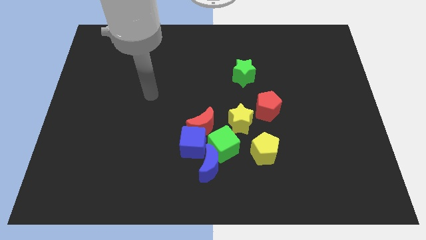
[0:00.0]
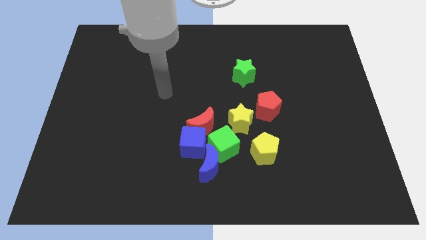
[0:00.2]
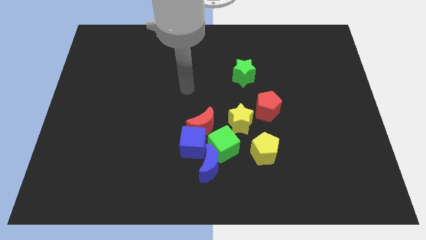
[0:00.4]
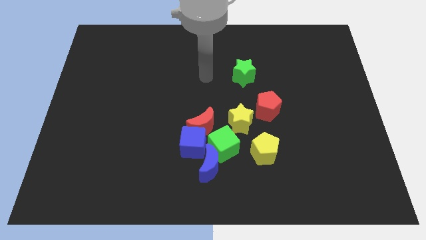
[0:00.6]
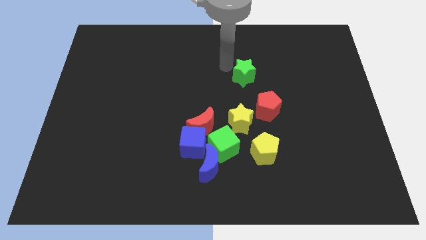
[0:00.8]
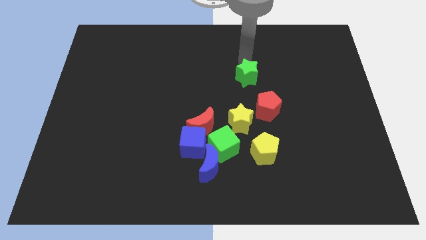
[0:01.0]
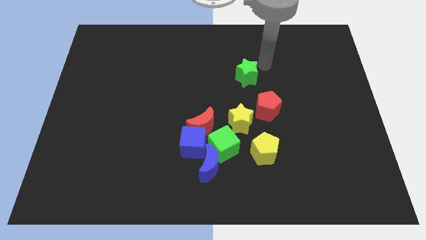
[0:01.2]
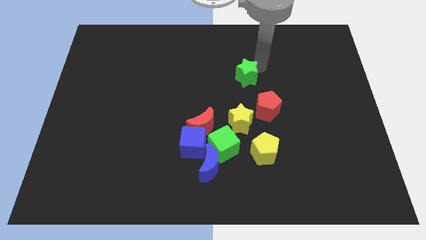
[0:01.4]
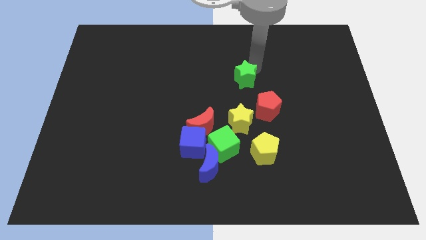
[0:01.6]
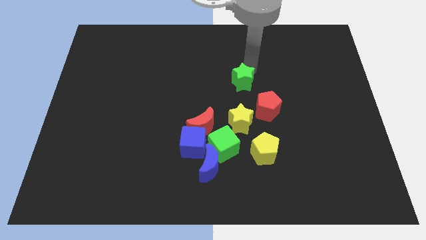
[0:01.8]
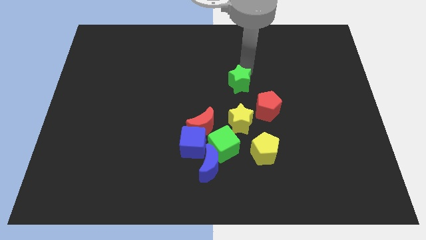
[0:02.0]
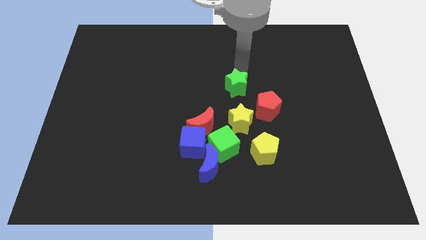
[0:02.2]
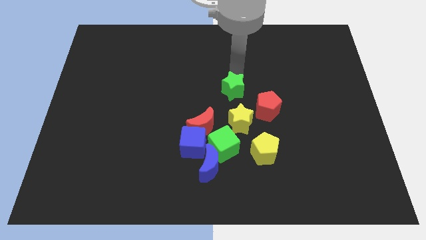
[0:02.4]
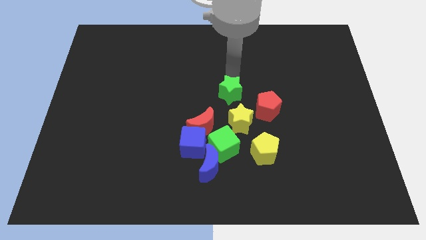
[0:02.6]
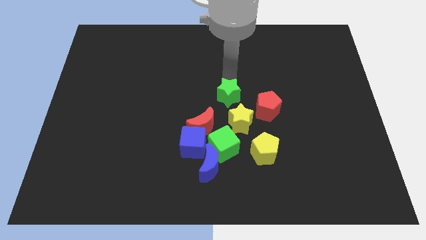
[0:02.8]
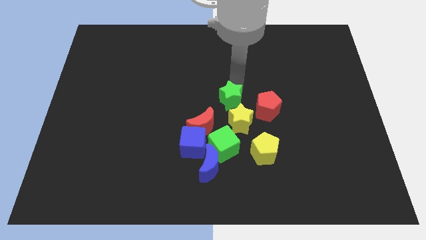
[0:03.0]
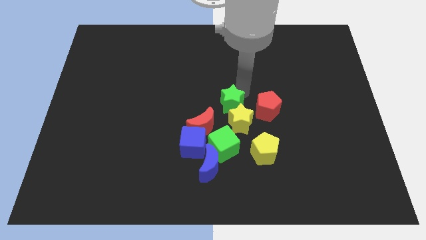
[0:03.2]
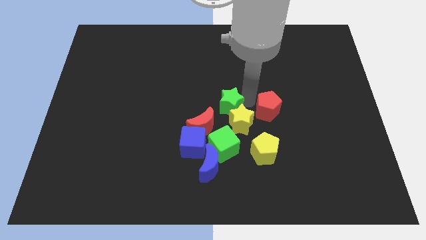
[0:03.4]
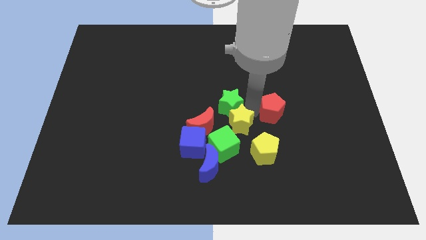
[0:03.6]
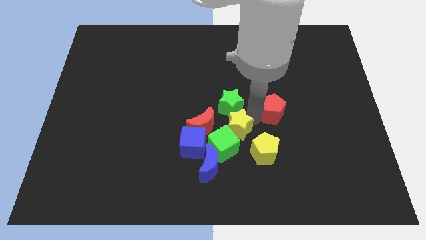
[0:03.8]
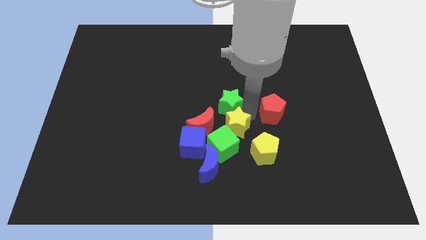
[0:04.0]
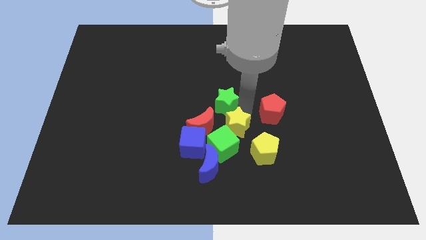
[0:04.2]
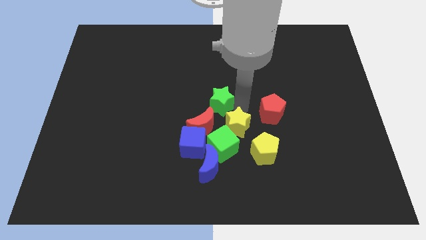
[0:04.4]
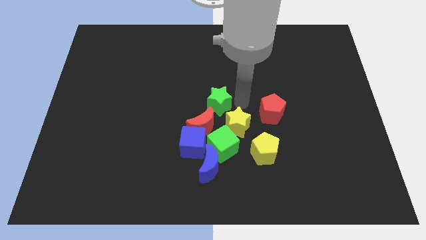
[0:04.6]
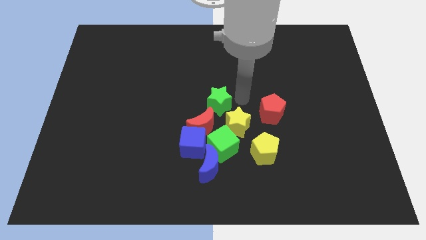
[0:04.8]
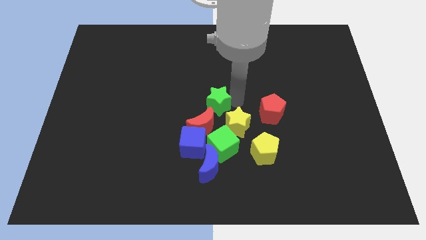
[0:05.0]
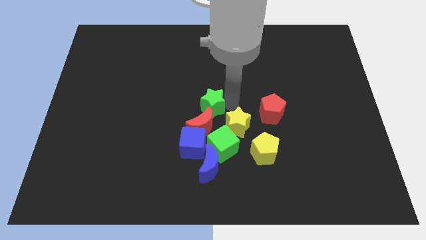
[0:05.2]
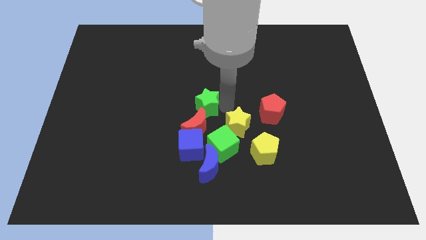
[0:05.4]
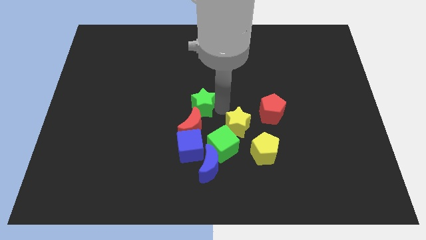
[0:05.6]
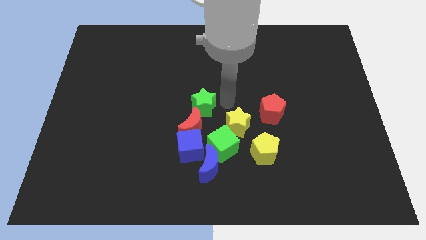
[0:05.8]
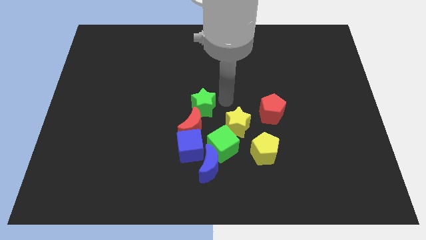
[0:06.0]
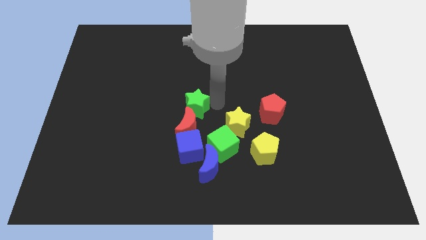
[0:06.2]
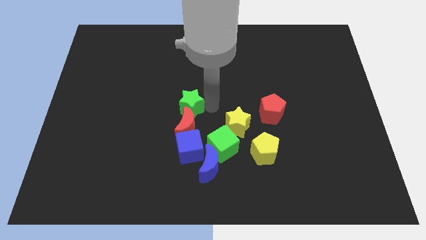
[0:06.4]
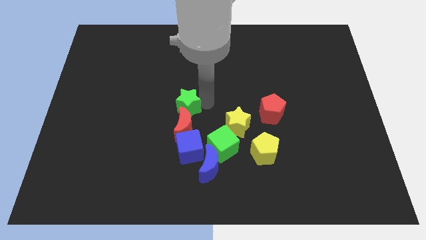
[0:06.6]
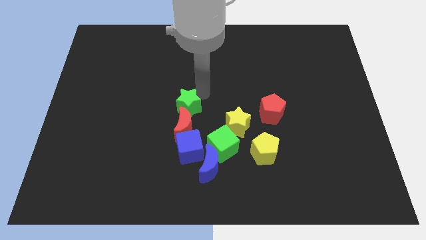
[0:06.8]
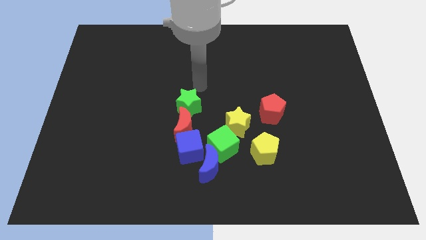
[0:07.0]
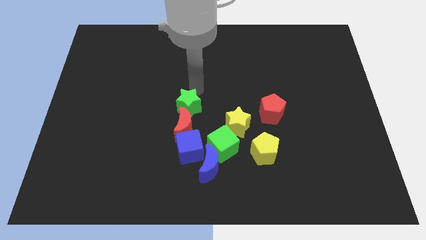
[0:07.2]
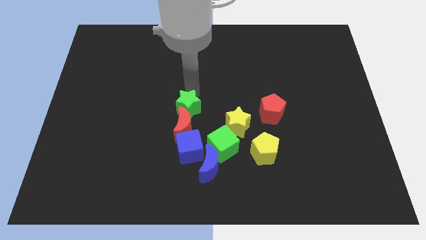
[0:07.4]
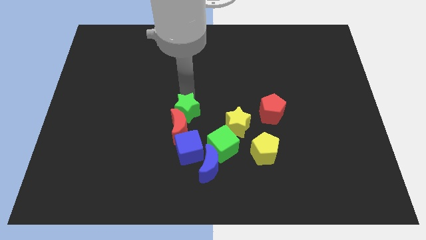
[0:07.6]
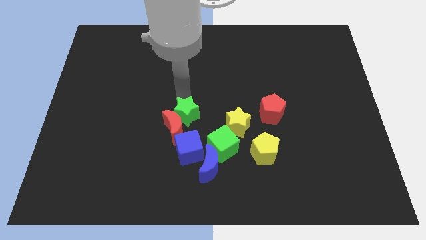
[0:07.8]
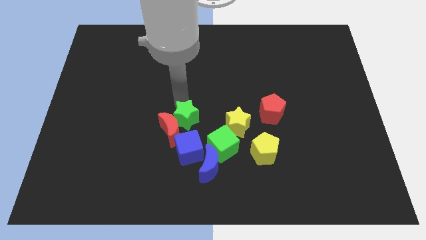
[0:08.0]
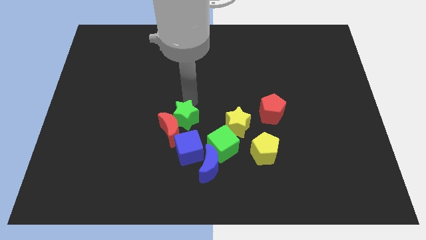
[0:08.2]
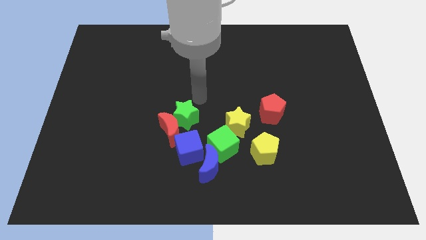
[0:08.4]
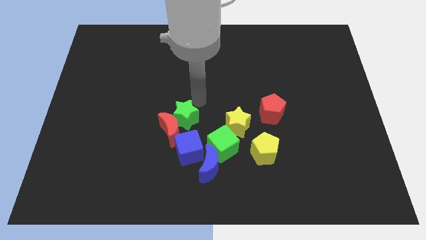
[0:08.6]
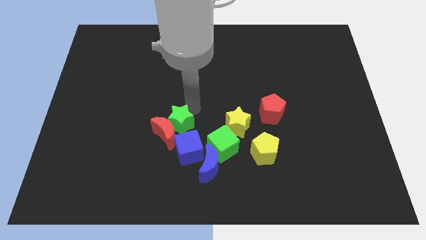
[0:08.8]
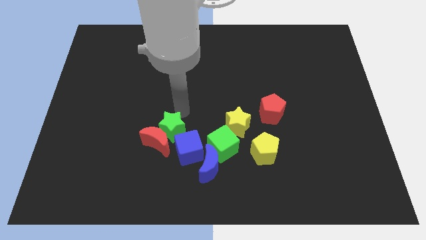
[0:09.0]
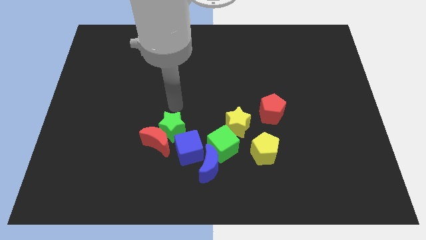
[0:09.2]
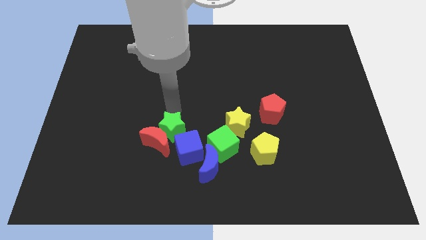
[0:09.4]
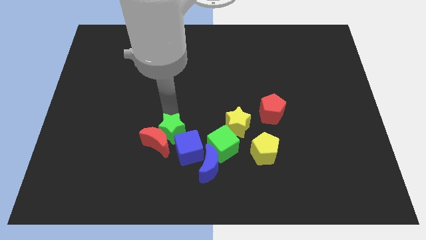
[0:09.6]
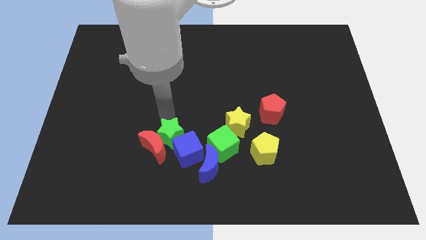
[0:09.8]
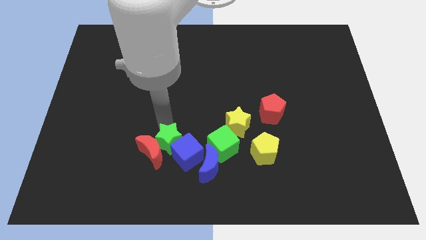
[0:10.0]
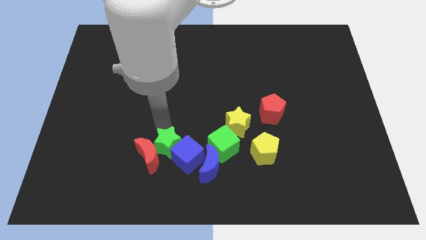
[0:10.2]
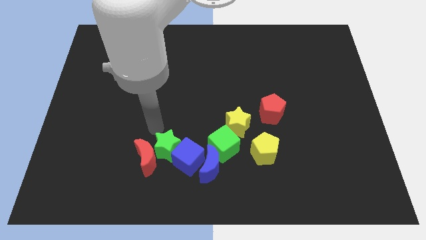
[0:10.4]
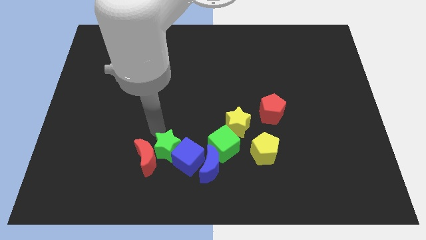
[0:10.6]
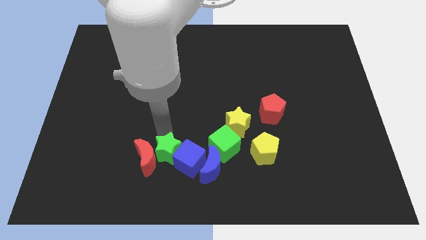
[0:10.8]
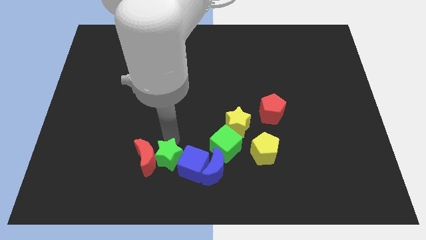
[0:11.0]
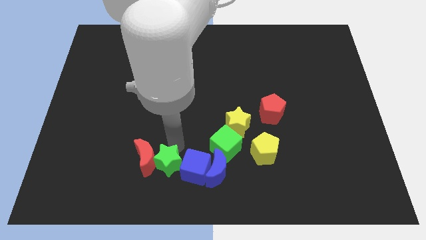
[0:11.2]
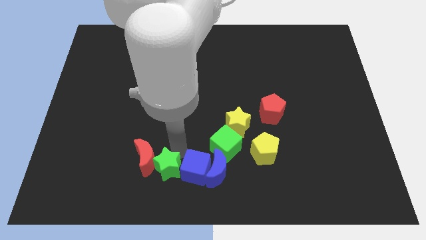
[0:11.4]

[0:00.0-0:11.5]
put the green star to the bottom side

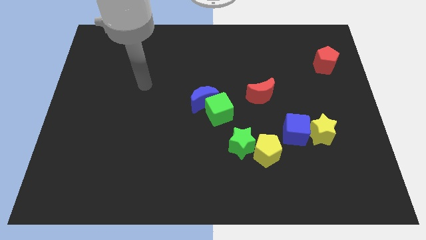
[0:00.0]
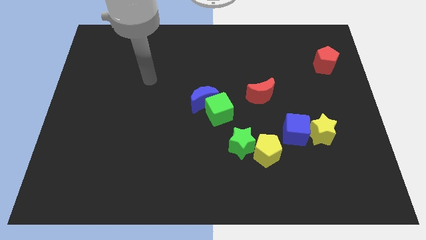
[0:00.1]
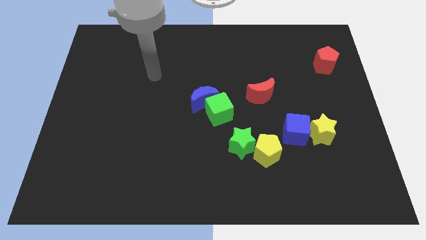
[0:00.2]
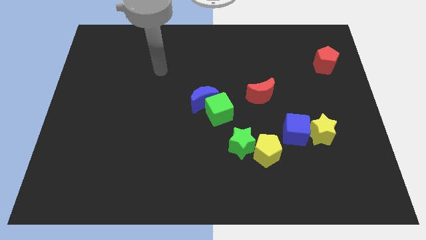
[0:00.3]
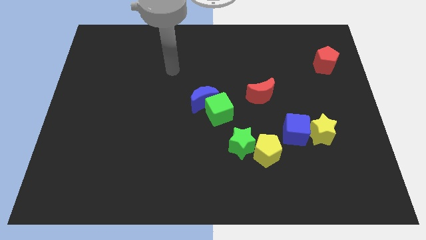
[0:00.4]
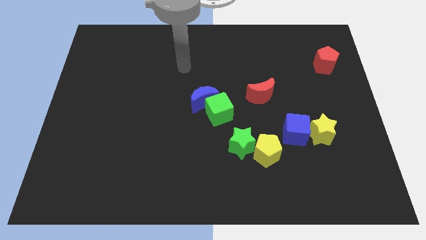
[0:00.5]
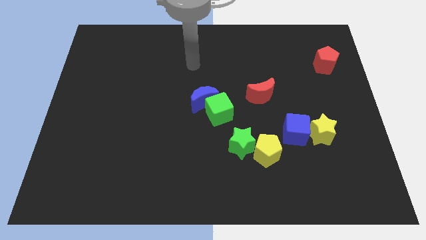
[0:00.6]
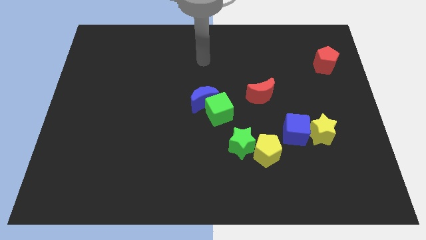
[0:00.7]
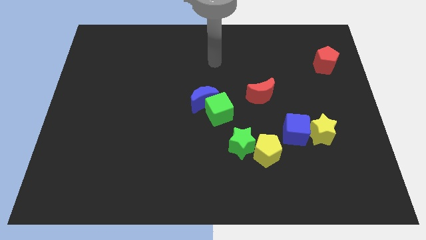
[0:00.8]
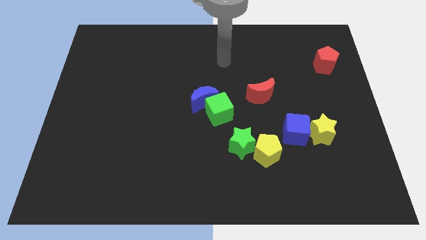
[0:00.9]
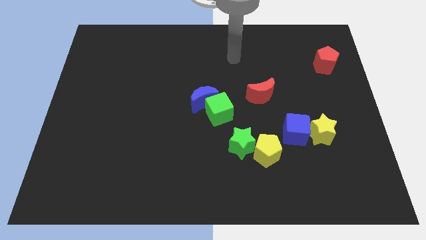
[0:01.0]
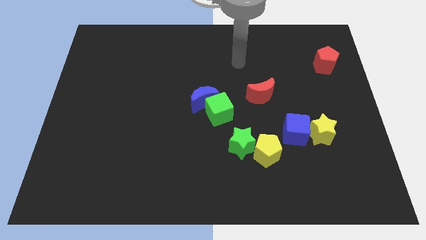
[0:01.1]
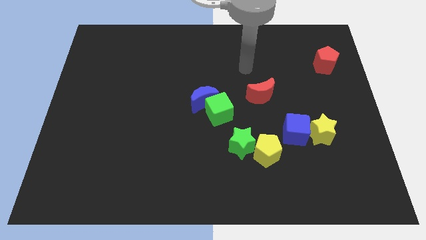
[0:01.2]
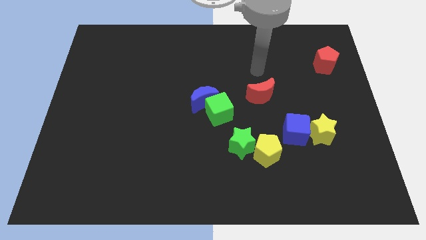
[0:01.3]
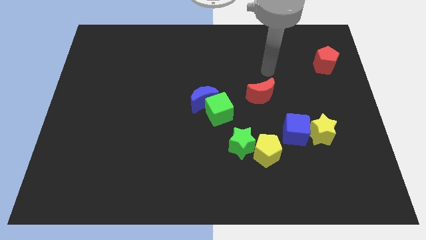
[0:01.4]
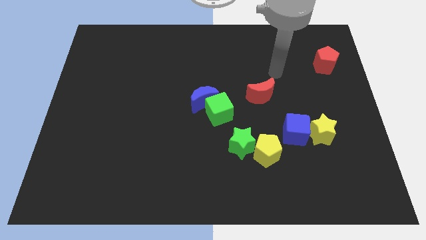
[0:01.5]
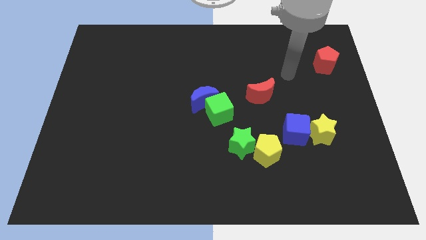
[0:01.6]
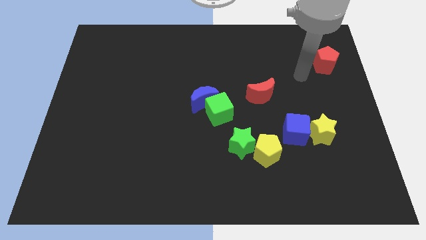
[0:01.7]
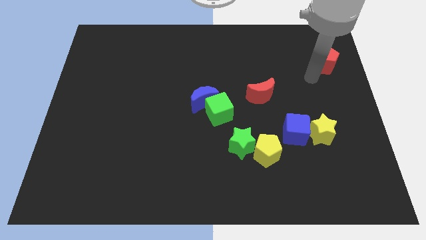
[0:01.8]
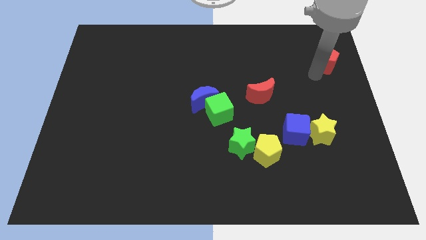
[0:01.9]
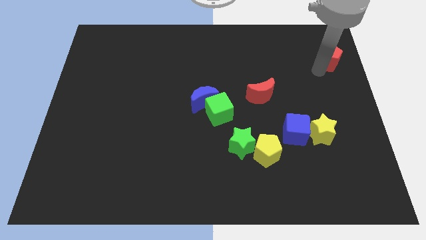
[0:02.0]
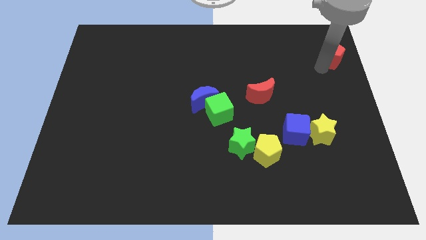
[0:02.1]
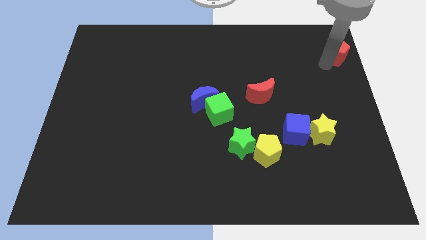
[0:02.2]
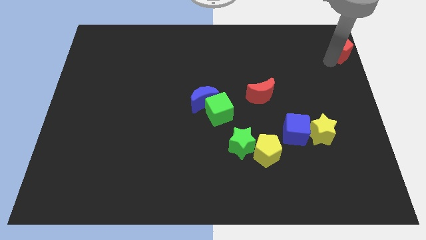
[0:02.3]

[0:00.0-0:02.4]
put the red pentagon to the top right corner
